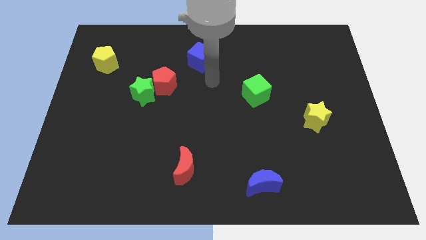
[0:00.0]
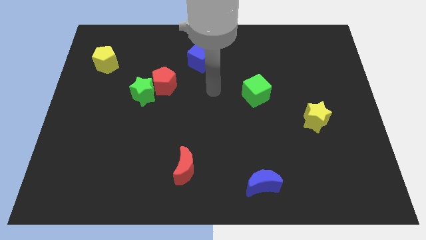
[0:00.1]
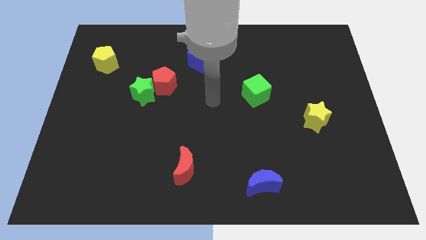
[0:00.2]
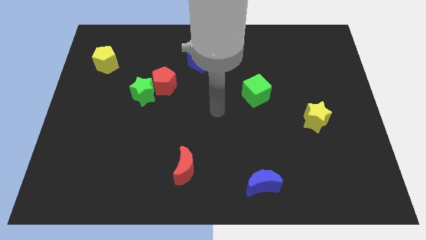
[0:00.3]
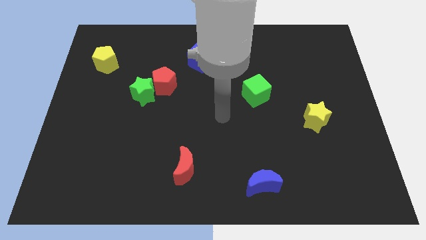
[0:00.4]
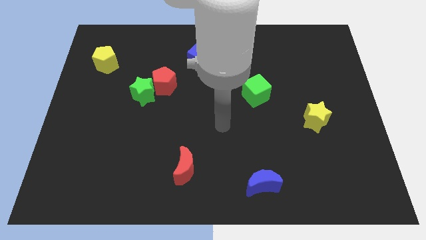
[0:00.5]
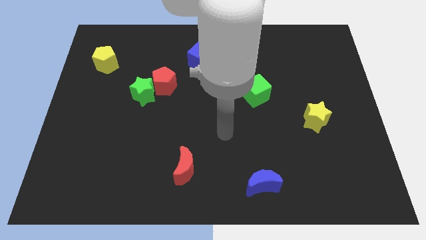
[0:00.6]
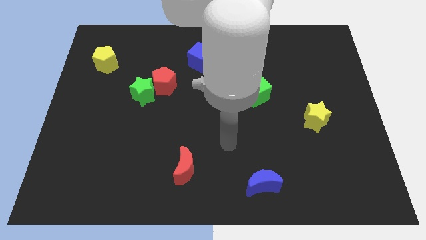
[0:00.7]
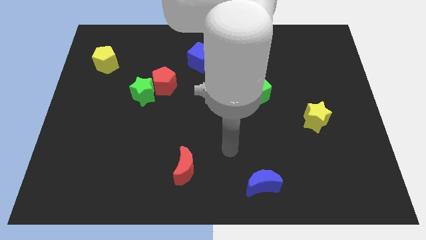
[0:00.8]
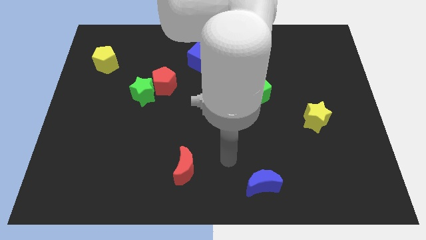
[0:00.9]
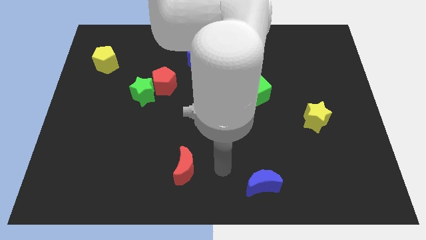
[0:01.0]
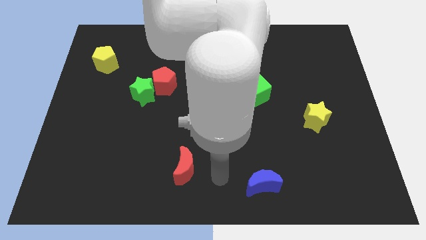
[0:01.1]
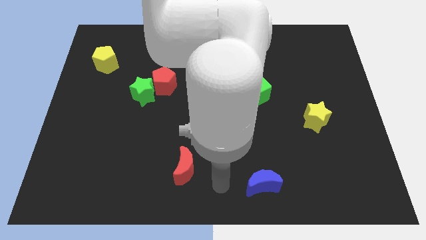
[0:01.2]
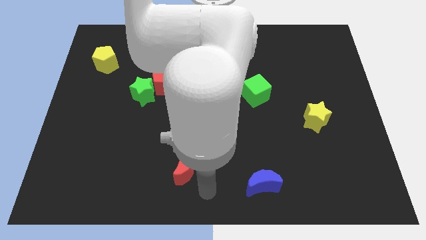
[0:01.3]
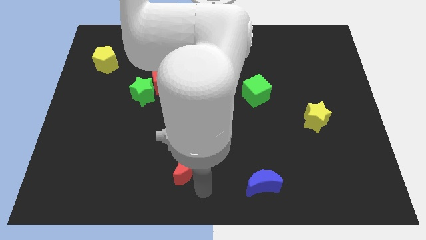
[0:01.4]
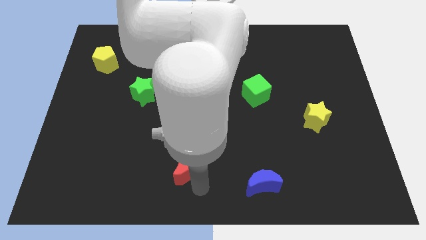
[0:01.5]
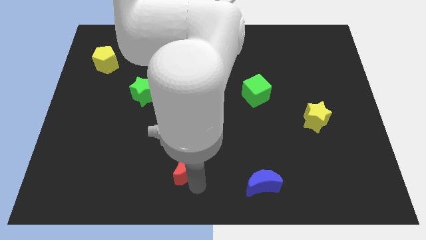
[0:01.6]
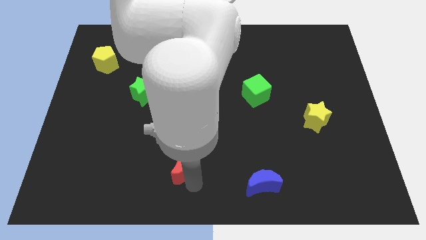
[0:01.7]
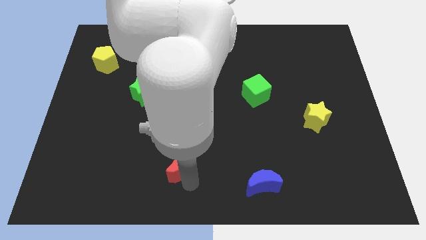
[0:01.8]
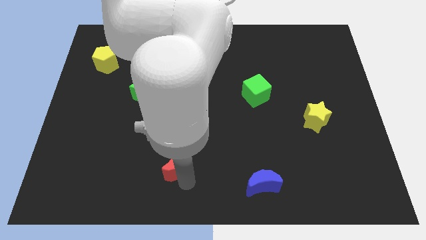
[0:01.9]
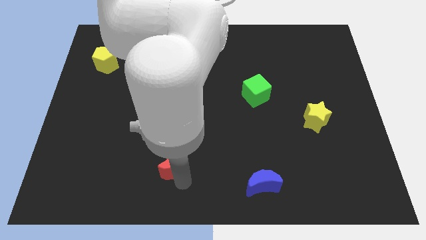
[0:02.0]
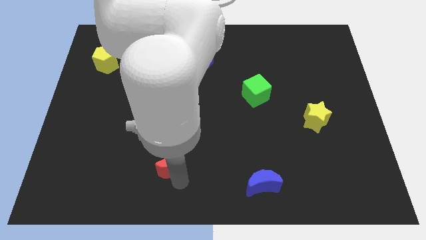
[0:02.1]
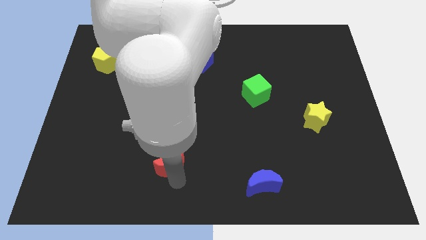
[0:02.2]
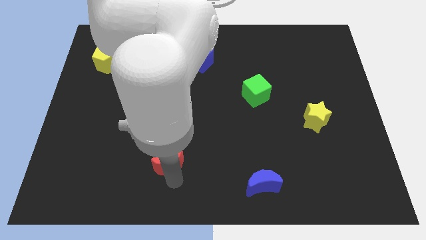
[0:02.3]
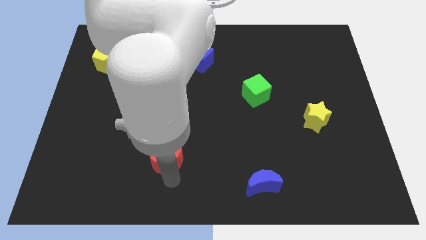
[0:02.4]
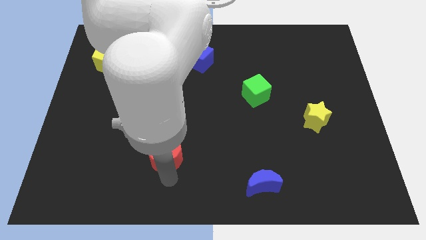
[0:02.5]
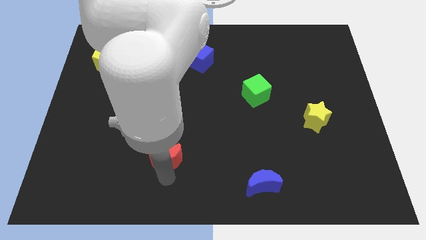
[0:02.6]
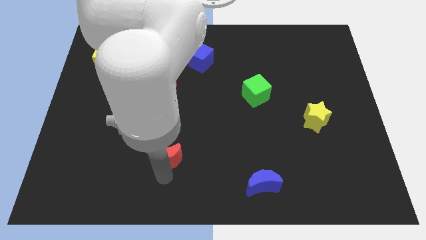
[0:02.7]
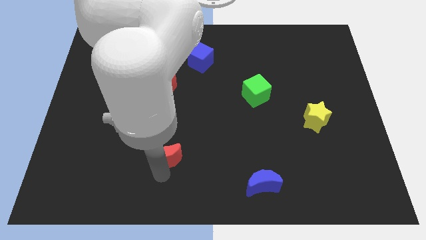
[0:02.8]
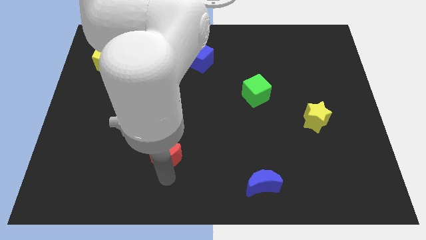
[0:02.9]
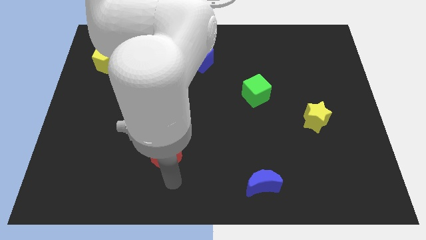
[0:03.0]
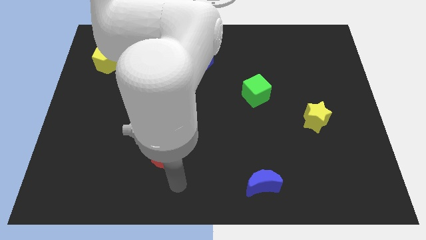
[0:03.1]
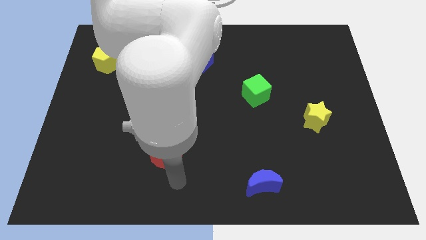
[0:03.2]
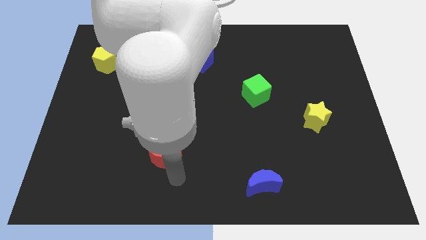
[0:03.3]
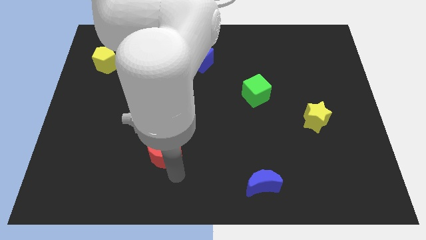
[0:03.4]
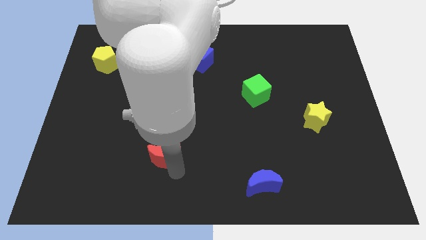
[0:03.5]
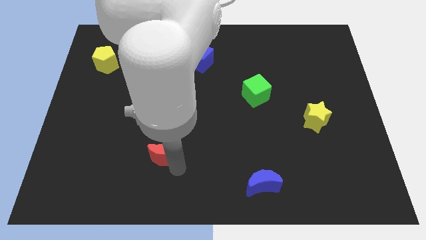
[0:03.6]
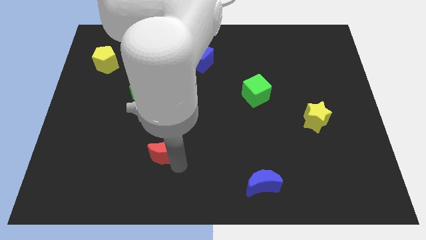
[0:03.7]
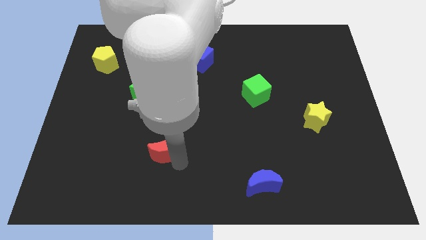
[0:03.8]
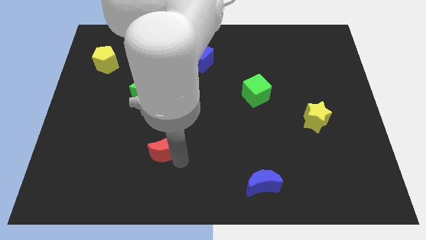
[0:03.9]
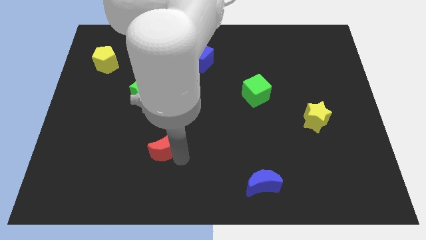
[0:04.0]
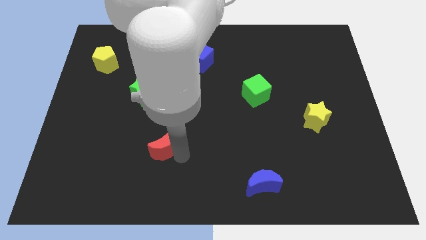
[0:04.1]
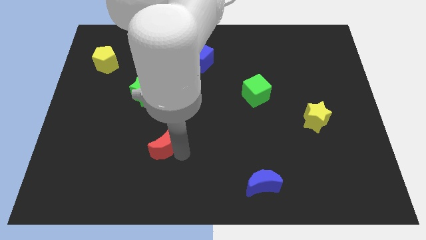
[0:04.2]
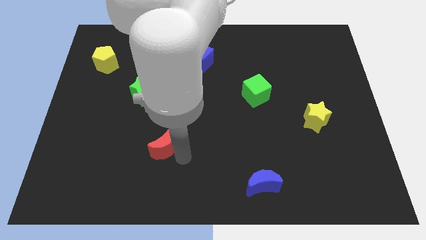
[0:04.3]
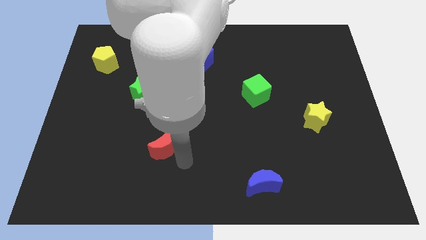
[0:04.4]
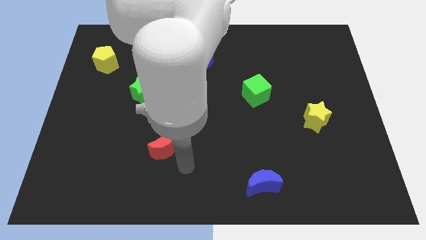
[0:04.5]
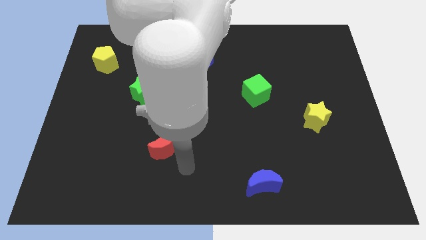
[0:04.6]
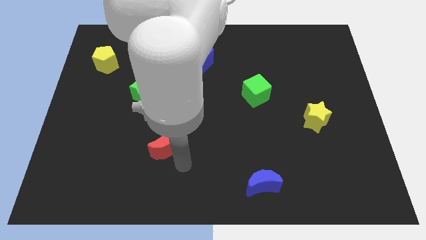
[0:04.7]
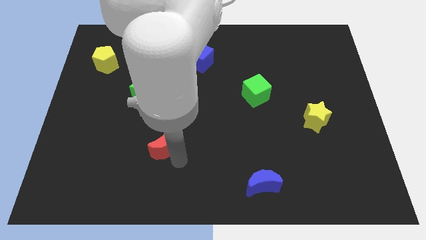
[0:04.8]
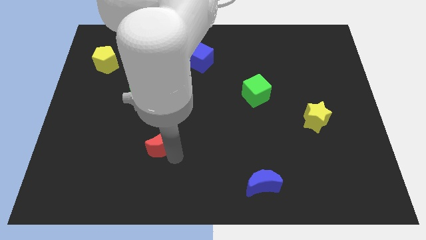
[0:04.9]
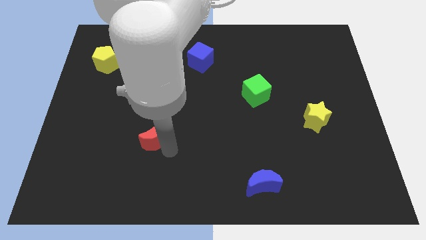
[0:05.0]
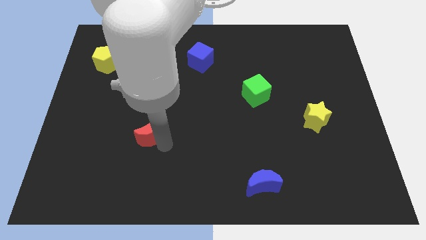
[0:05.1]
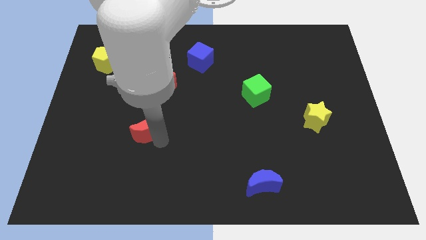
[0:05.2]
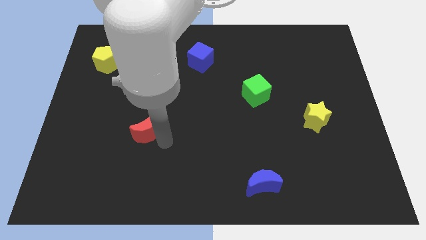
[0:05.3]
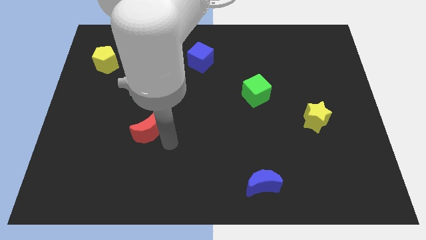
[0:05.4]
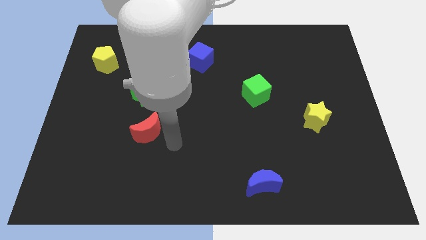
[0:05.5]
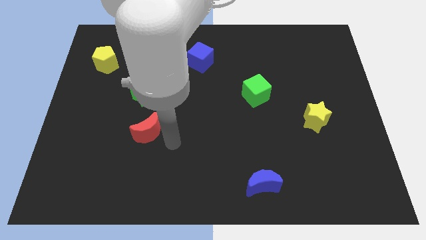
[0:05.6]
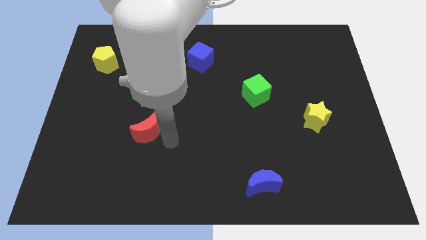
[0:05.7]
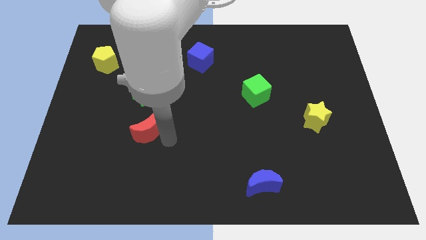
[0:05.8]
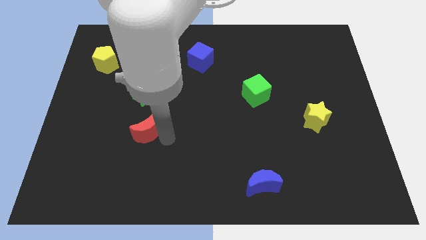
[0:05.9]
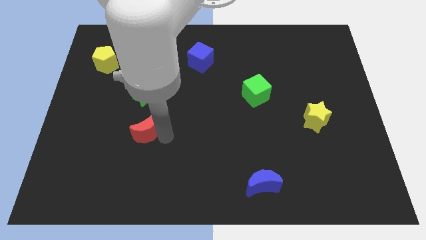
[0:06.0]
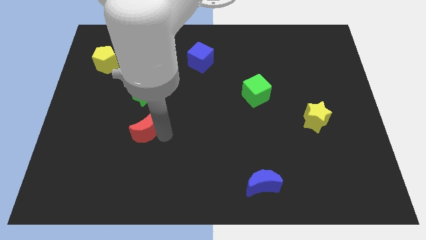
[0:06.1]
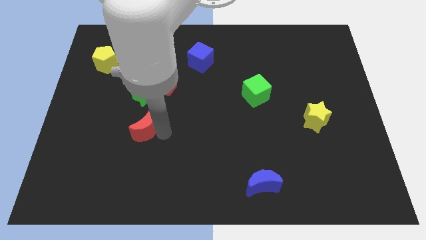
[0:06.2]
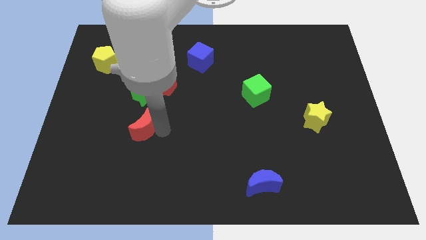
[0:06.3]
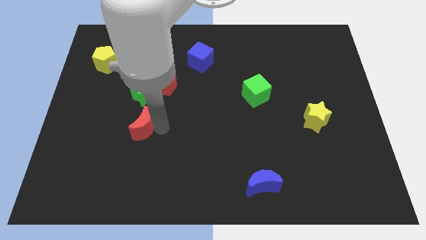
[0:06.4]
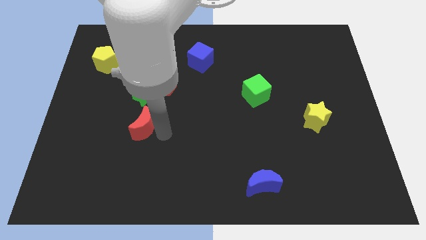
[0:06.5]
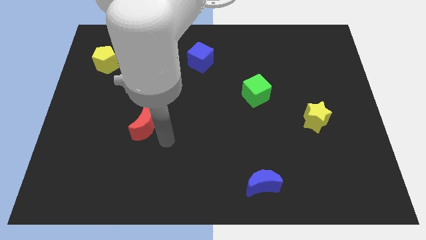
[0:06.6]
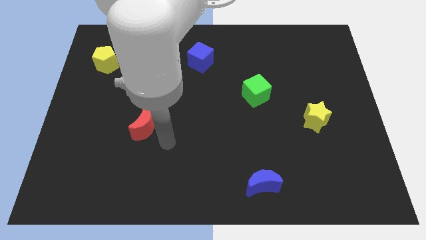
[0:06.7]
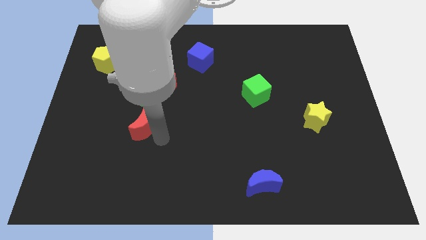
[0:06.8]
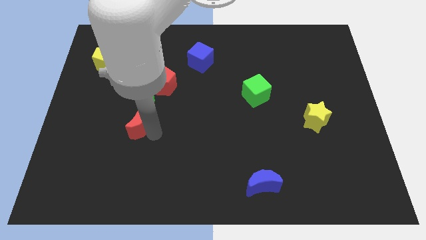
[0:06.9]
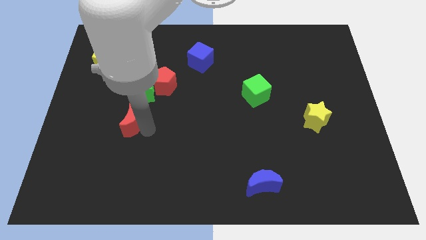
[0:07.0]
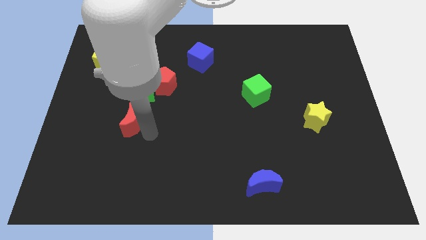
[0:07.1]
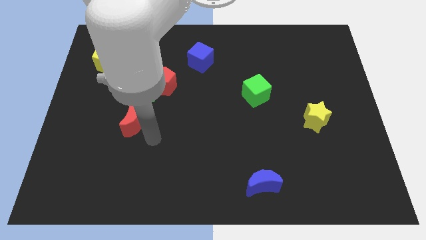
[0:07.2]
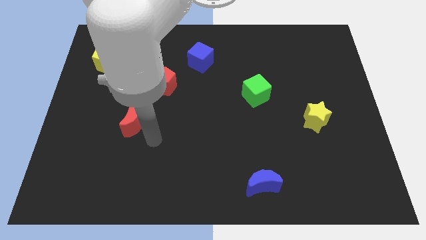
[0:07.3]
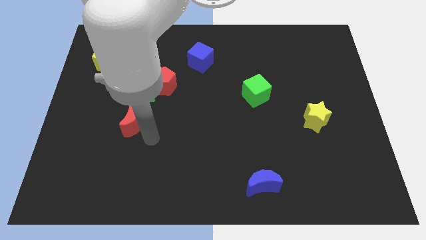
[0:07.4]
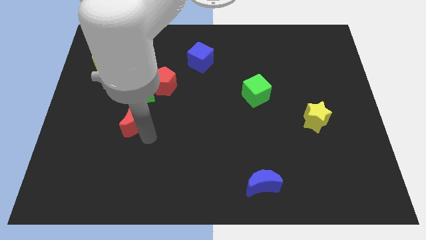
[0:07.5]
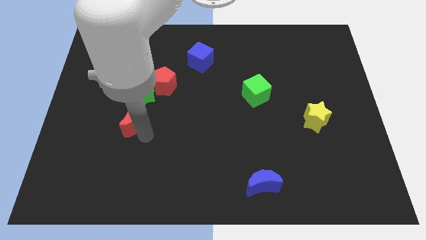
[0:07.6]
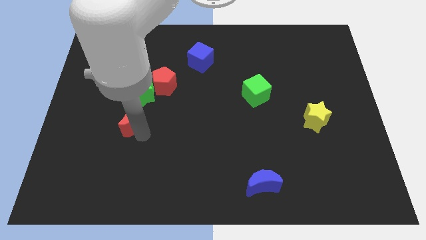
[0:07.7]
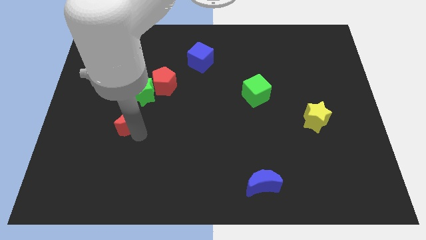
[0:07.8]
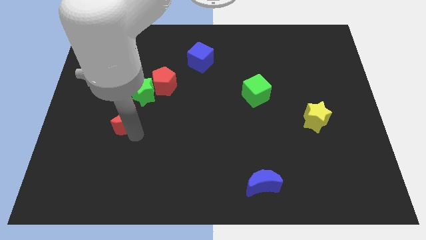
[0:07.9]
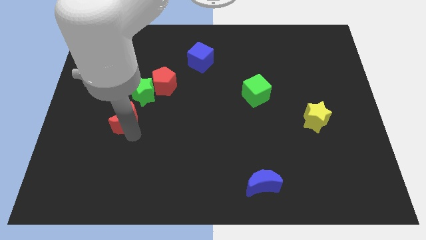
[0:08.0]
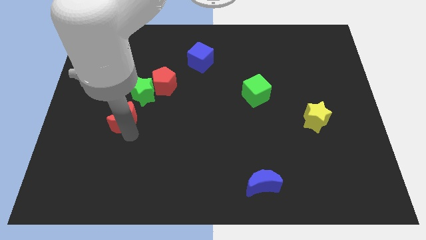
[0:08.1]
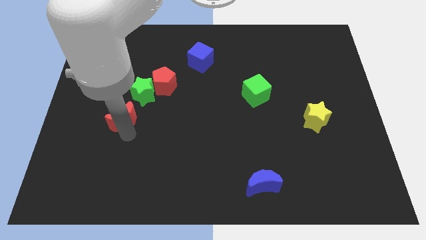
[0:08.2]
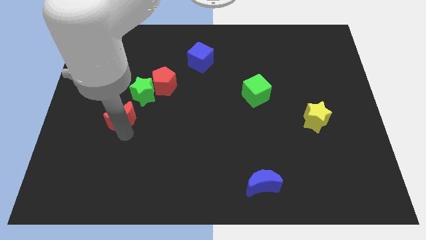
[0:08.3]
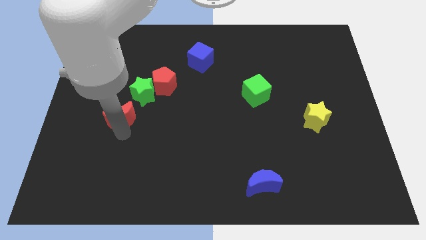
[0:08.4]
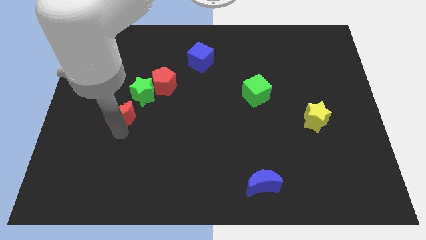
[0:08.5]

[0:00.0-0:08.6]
move the red moon up and to the left diagonally
